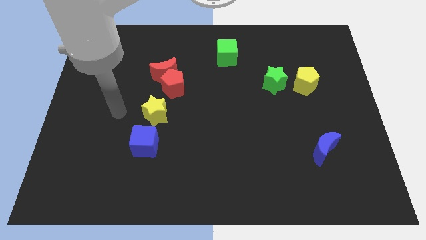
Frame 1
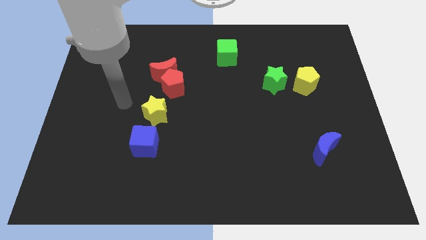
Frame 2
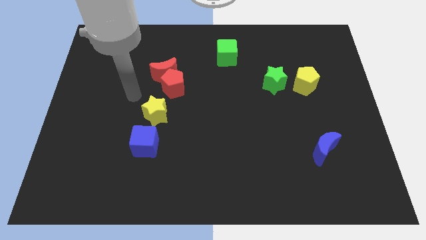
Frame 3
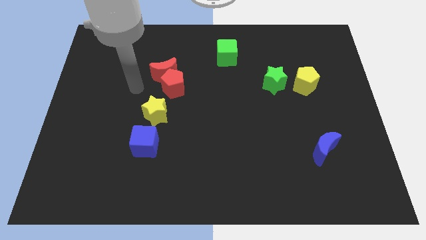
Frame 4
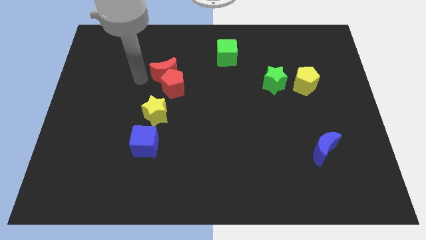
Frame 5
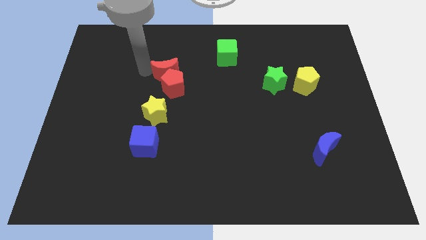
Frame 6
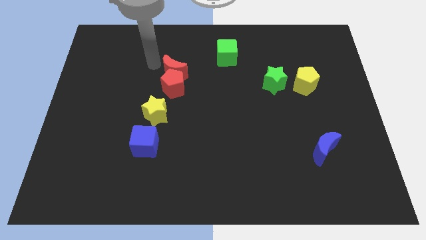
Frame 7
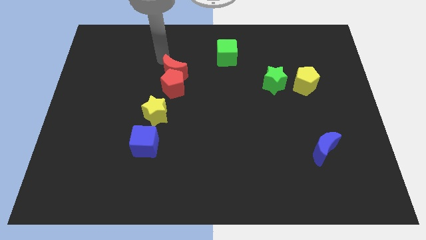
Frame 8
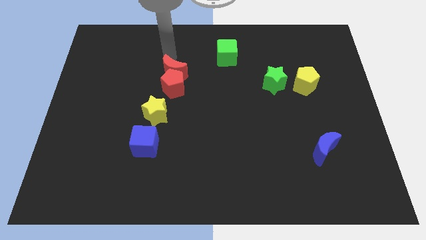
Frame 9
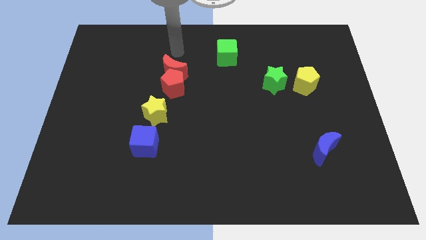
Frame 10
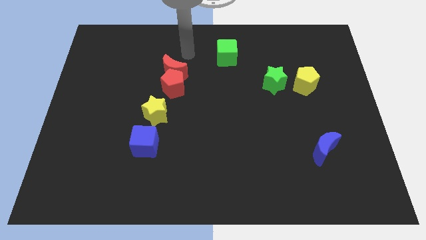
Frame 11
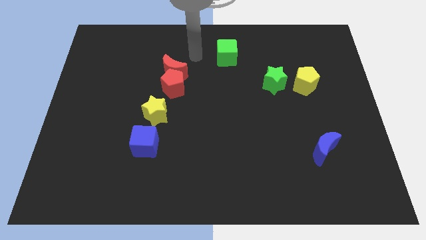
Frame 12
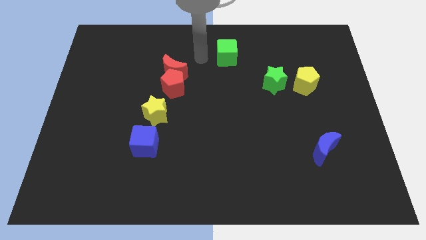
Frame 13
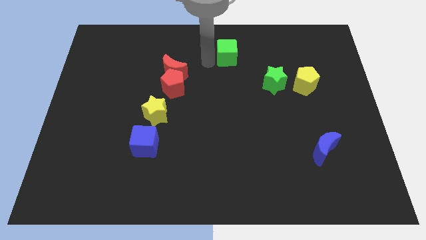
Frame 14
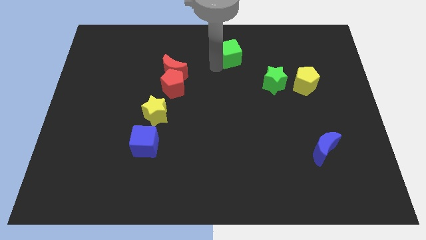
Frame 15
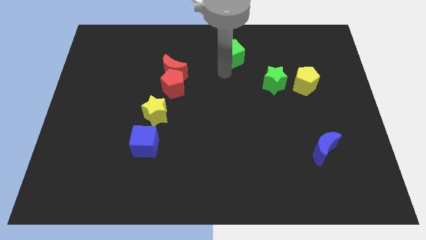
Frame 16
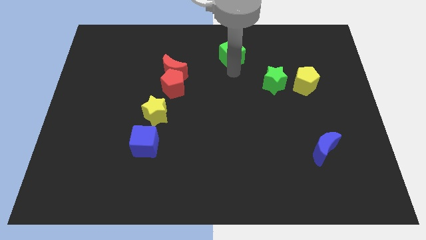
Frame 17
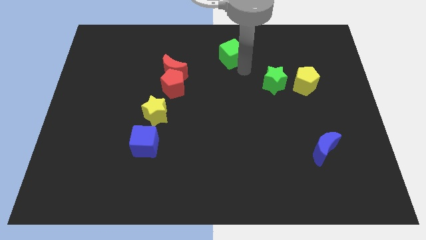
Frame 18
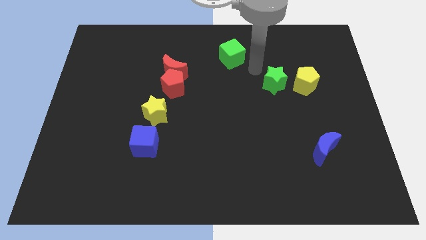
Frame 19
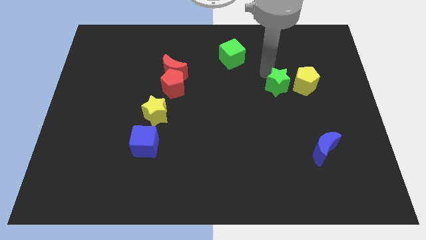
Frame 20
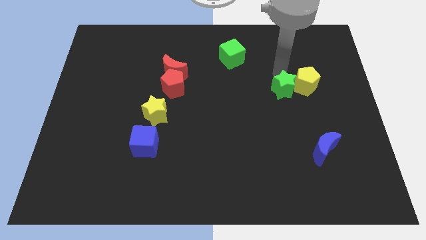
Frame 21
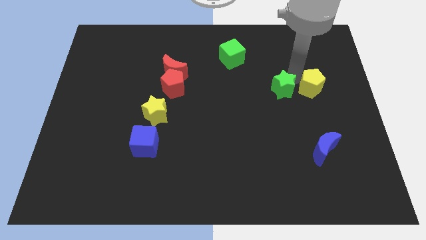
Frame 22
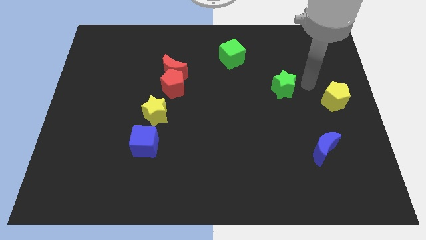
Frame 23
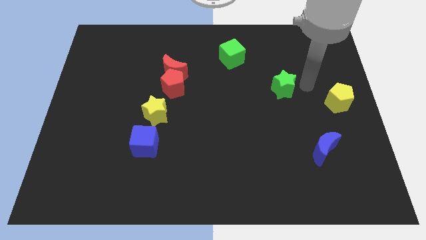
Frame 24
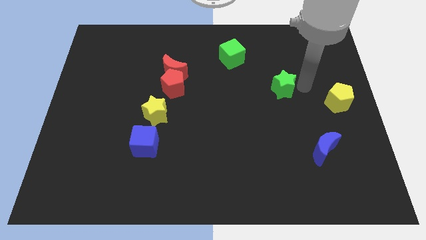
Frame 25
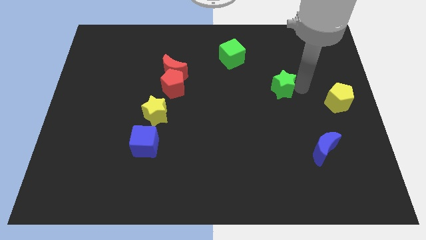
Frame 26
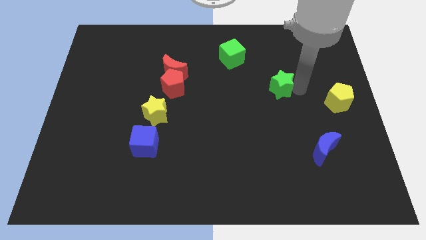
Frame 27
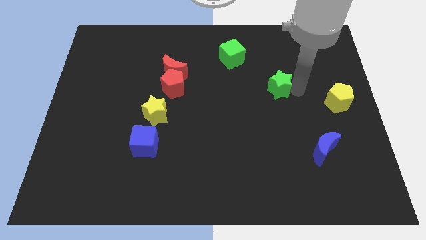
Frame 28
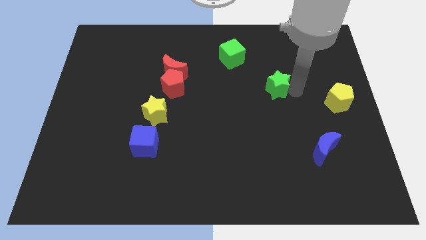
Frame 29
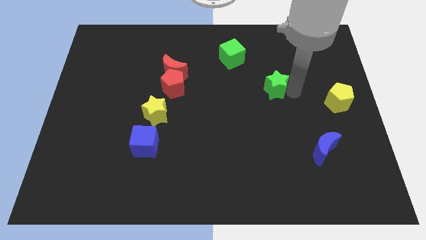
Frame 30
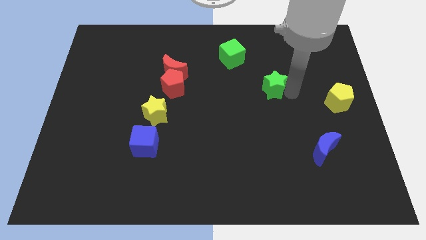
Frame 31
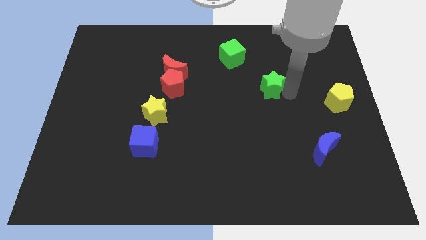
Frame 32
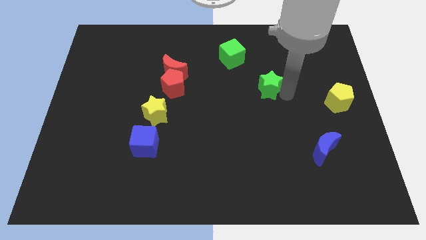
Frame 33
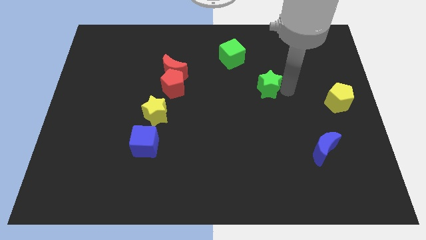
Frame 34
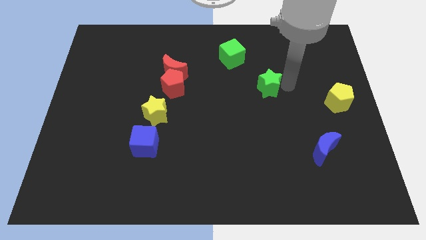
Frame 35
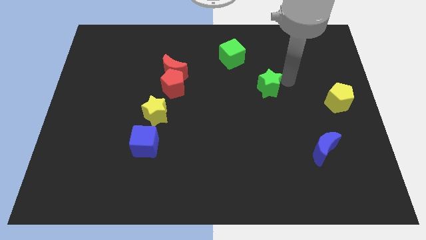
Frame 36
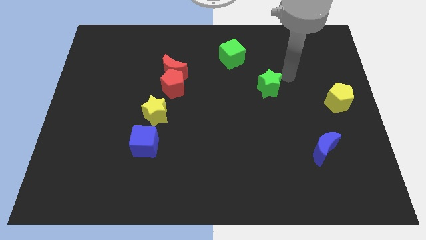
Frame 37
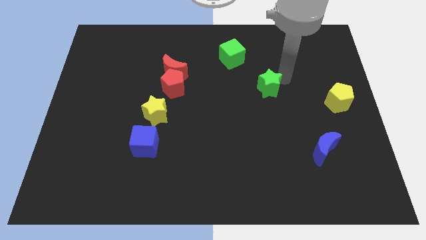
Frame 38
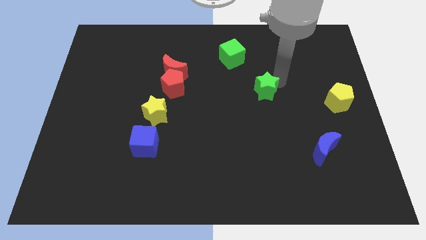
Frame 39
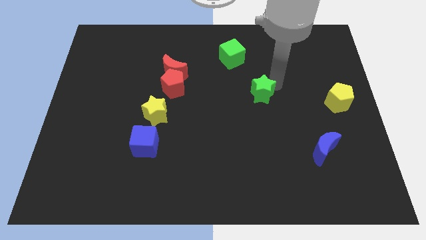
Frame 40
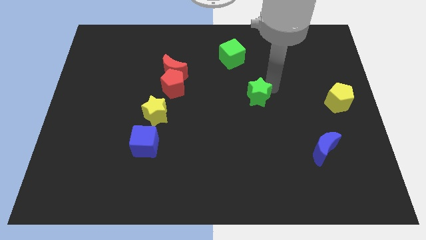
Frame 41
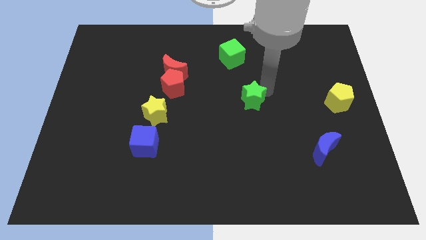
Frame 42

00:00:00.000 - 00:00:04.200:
move the green star a bit down and then to the left

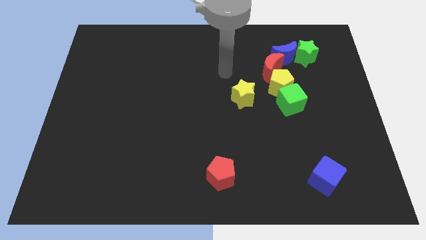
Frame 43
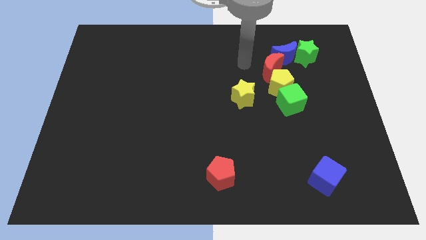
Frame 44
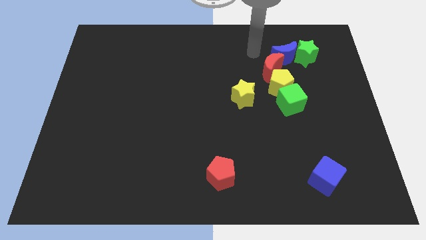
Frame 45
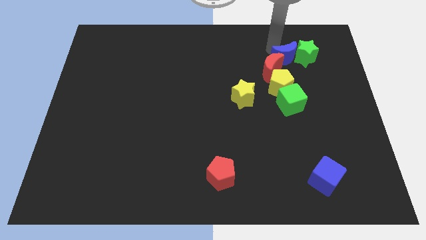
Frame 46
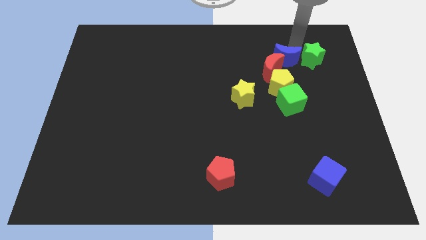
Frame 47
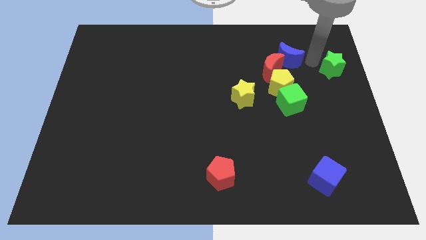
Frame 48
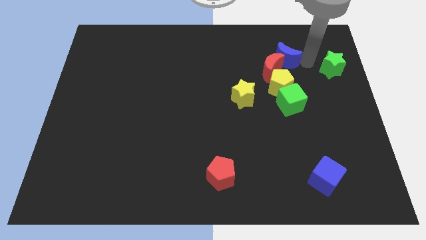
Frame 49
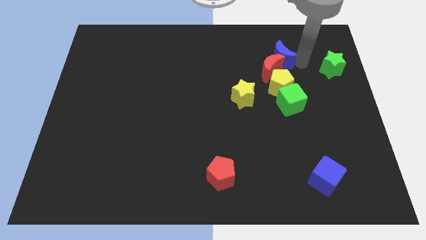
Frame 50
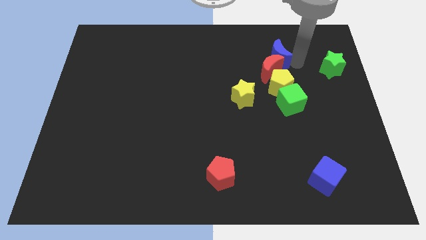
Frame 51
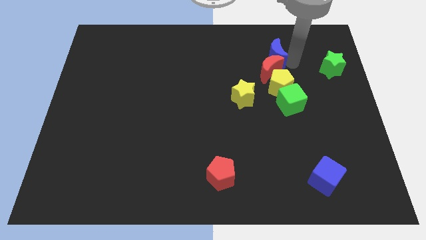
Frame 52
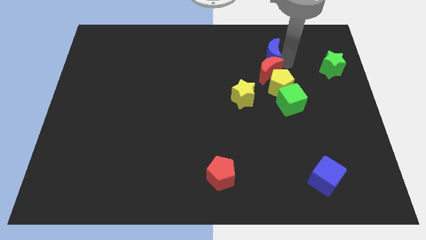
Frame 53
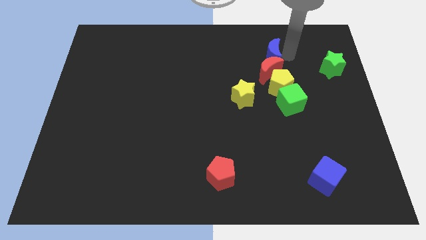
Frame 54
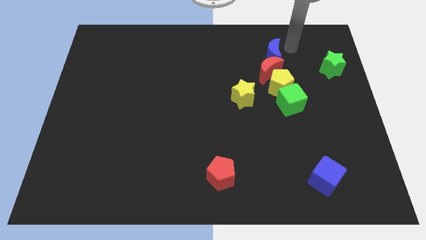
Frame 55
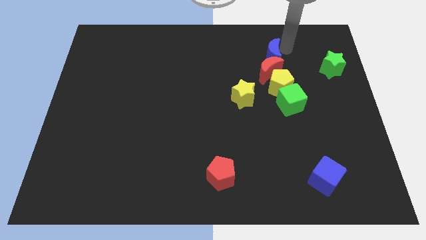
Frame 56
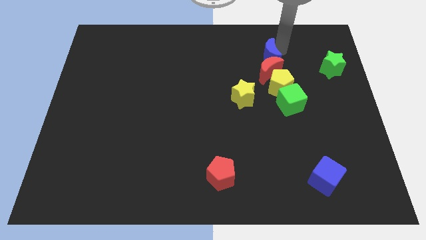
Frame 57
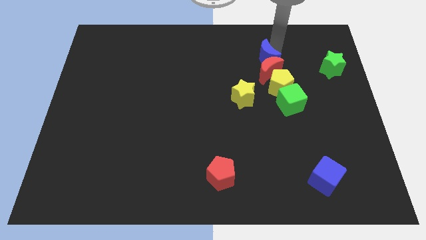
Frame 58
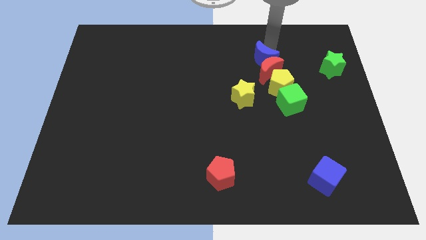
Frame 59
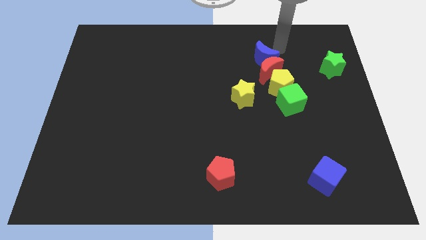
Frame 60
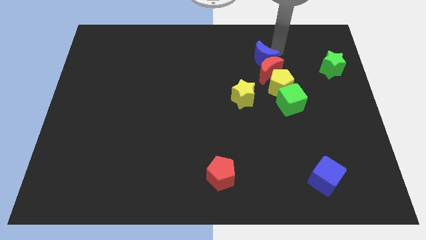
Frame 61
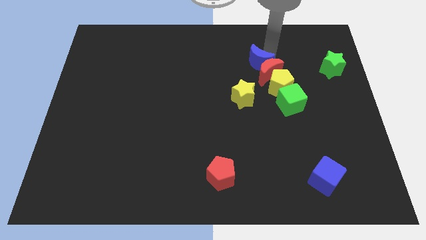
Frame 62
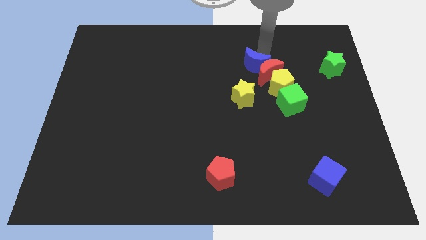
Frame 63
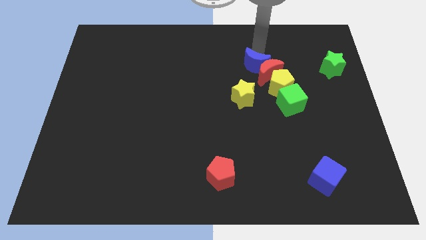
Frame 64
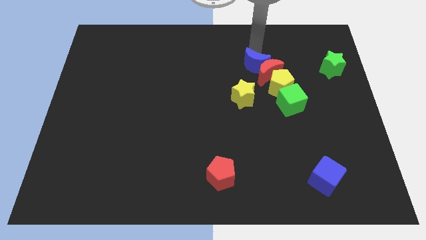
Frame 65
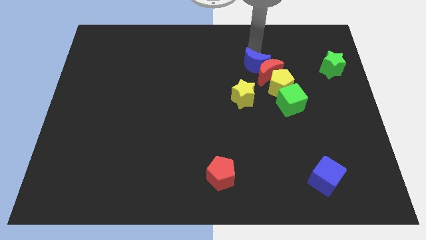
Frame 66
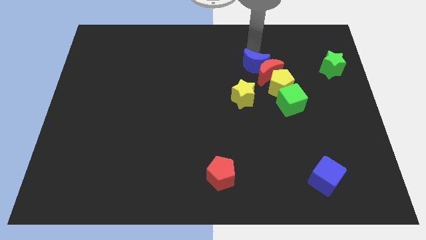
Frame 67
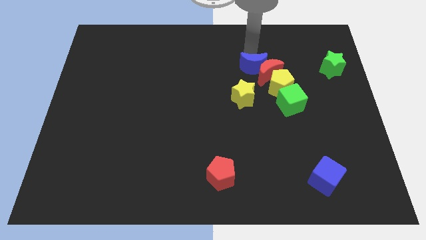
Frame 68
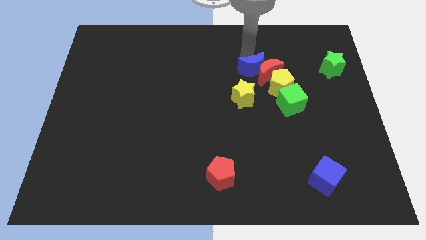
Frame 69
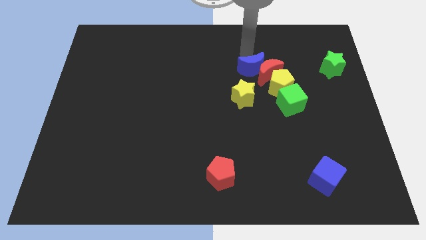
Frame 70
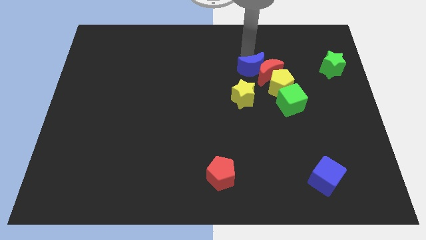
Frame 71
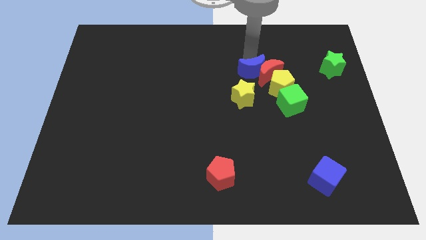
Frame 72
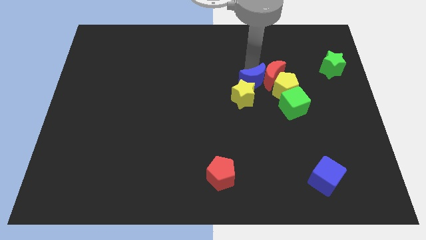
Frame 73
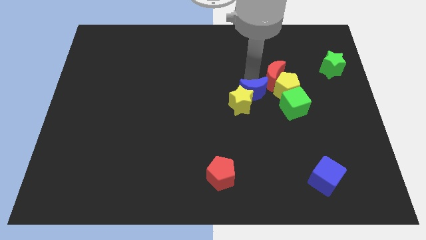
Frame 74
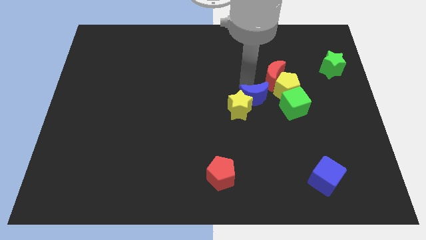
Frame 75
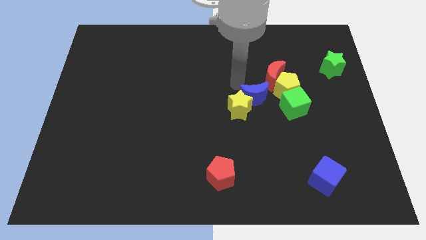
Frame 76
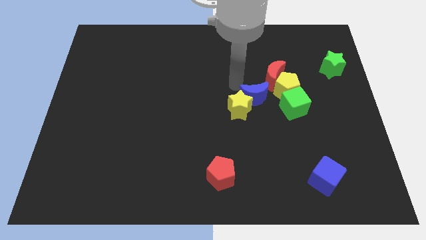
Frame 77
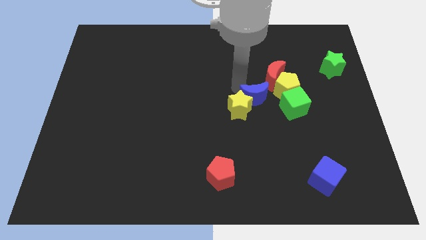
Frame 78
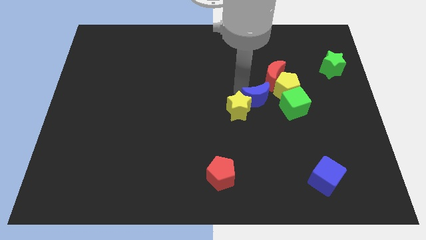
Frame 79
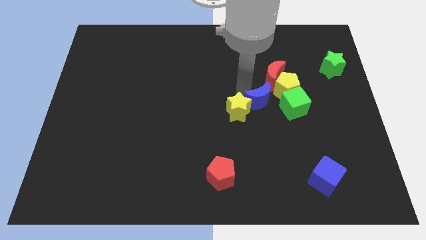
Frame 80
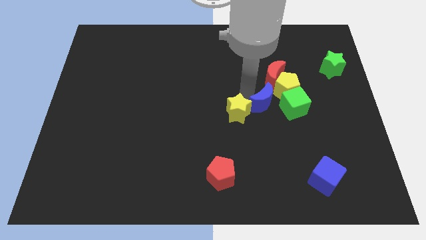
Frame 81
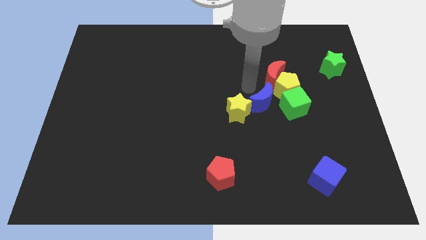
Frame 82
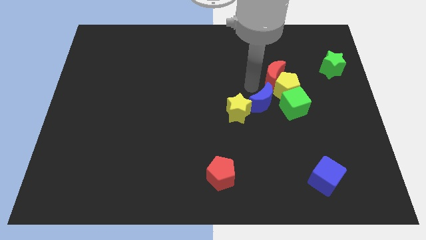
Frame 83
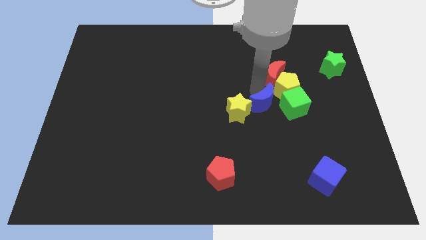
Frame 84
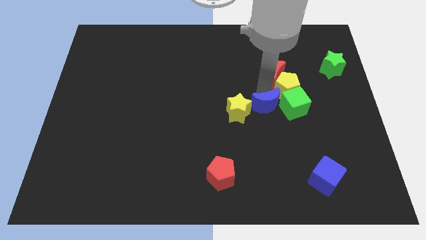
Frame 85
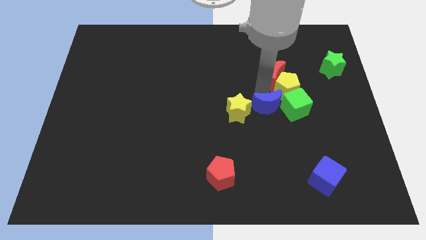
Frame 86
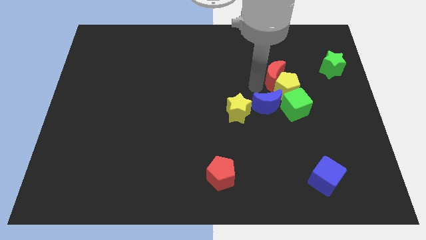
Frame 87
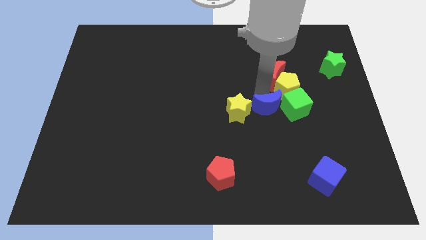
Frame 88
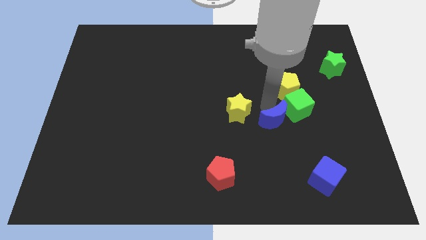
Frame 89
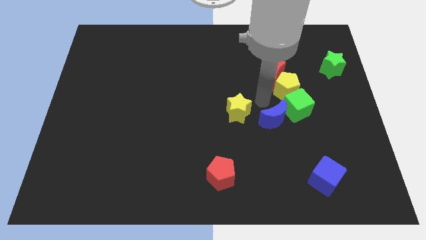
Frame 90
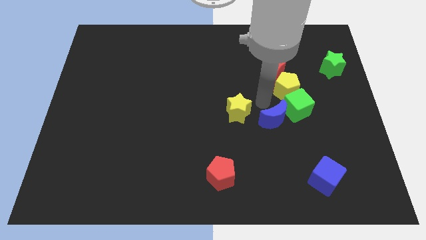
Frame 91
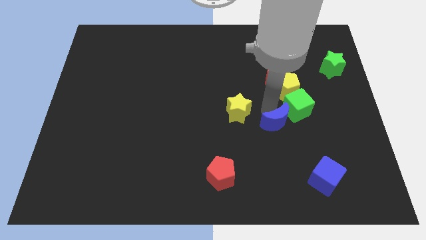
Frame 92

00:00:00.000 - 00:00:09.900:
push the blue moon downwards
